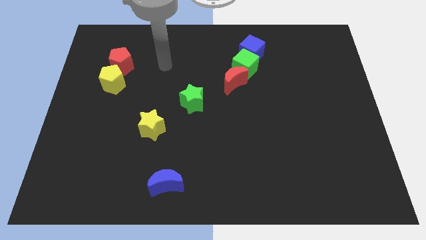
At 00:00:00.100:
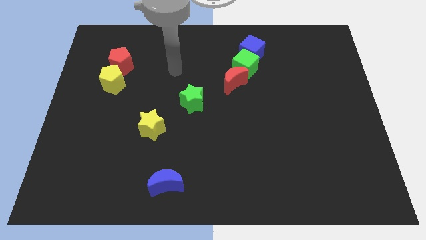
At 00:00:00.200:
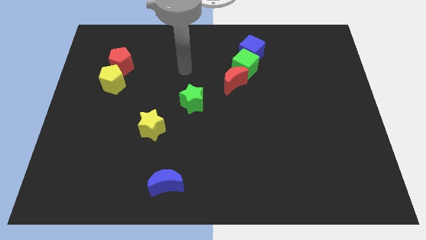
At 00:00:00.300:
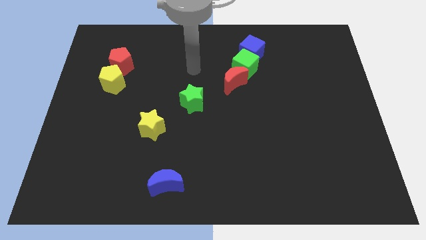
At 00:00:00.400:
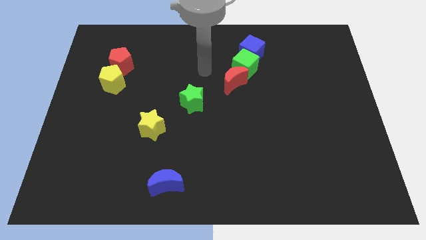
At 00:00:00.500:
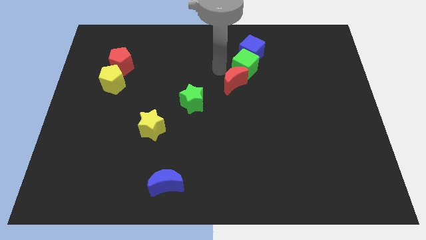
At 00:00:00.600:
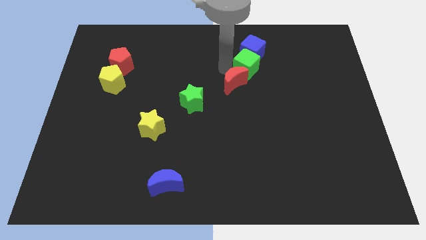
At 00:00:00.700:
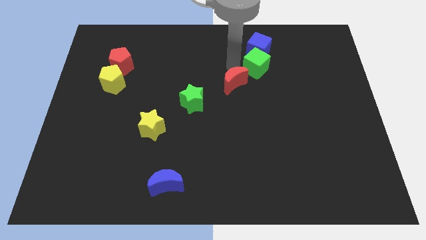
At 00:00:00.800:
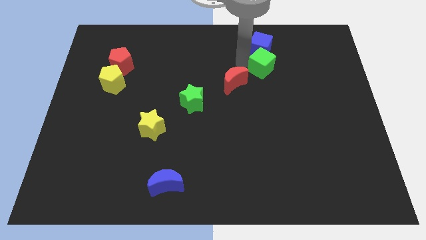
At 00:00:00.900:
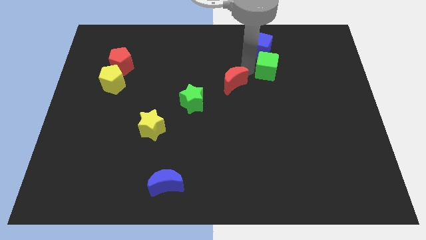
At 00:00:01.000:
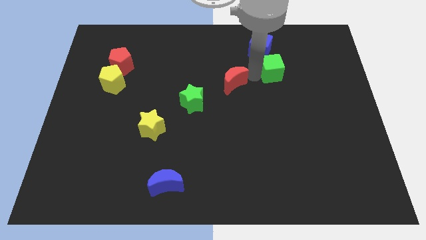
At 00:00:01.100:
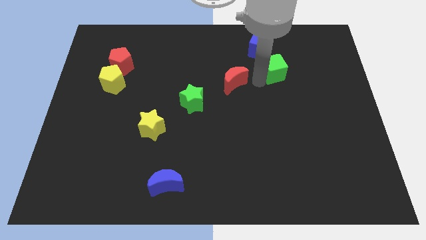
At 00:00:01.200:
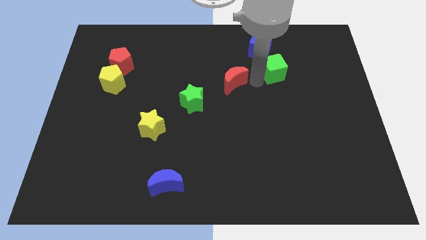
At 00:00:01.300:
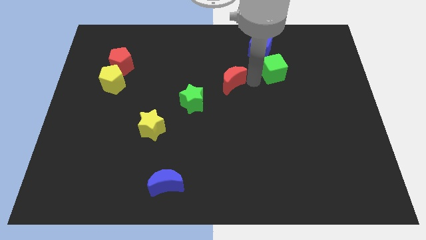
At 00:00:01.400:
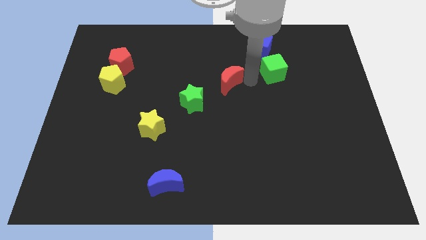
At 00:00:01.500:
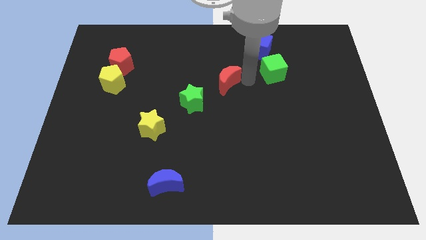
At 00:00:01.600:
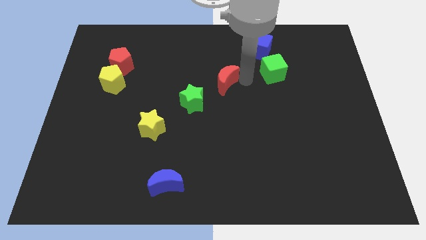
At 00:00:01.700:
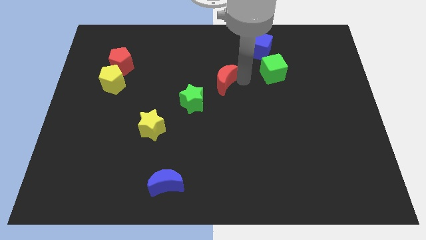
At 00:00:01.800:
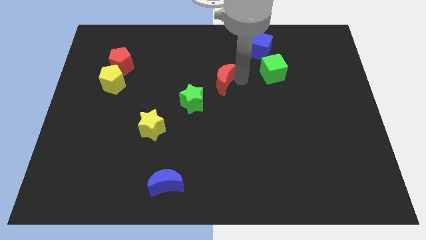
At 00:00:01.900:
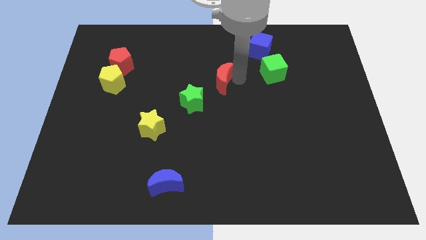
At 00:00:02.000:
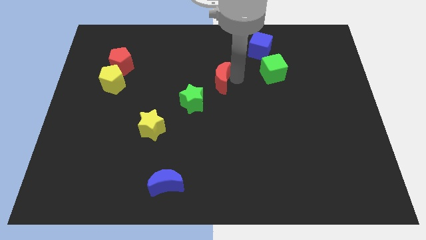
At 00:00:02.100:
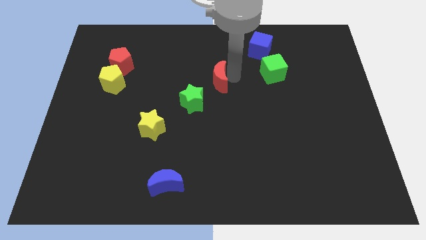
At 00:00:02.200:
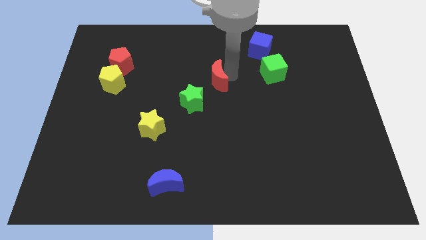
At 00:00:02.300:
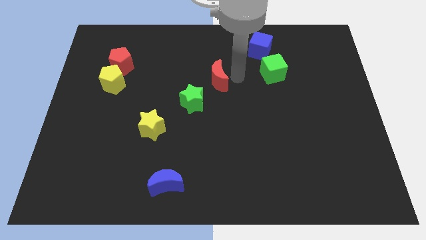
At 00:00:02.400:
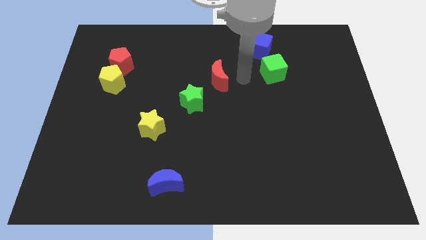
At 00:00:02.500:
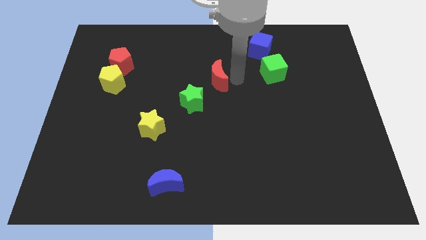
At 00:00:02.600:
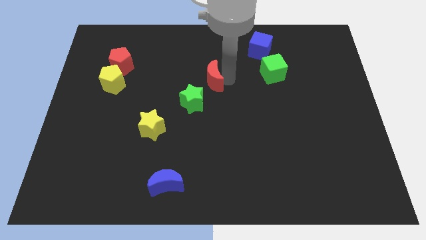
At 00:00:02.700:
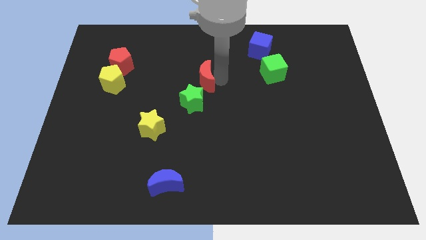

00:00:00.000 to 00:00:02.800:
move the red moon a bit to the left

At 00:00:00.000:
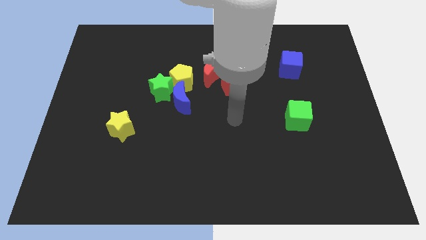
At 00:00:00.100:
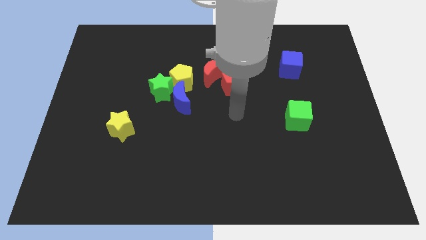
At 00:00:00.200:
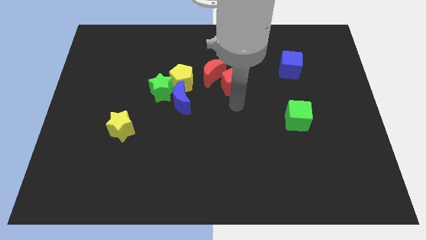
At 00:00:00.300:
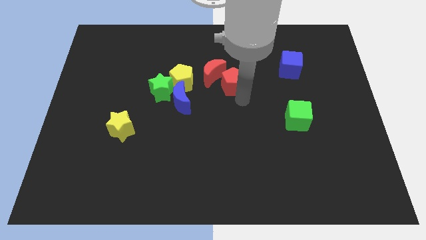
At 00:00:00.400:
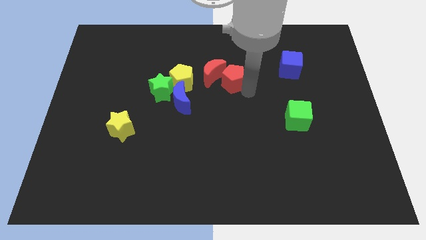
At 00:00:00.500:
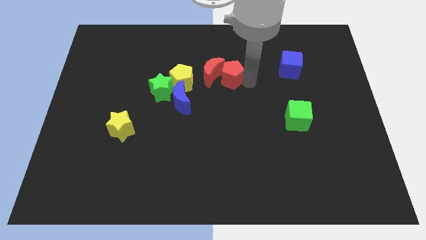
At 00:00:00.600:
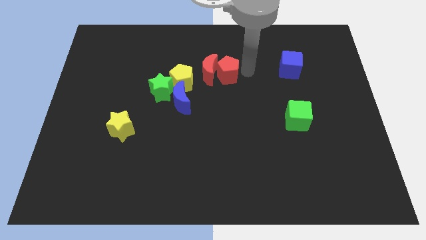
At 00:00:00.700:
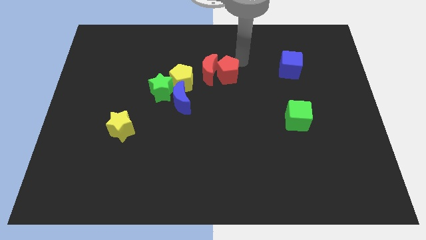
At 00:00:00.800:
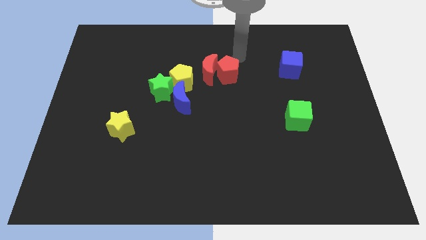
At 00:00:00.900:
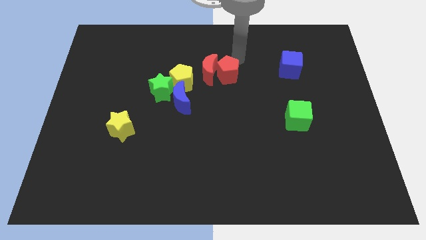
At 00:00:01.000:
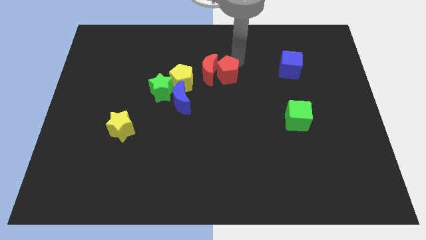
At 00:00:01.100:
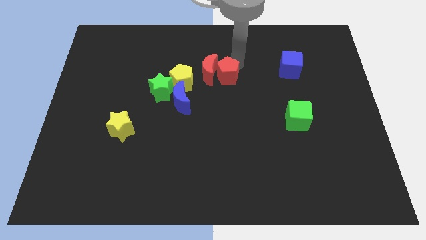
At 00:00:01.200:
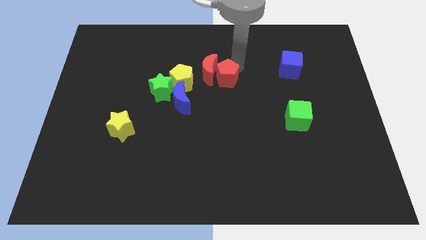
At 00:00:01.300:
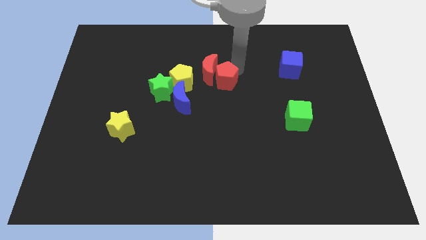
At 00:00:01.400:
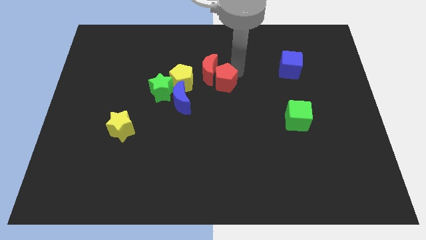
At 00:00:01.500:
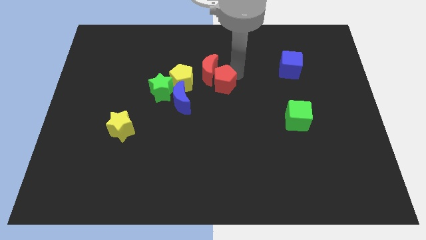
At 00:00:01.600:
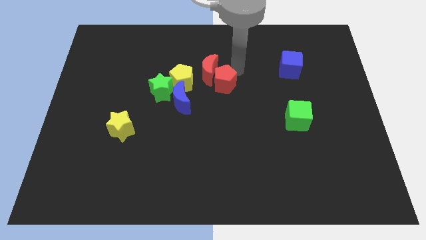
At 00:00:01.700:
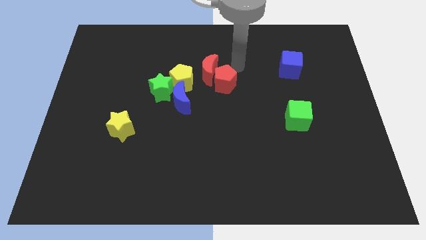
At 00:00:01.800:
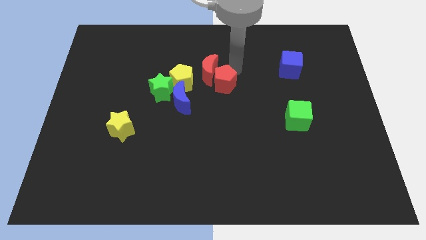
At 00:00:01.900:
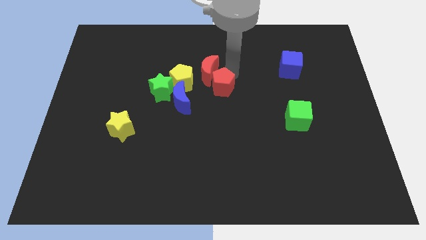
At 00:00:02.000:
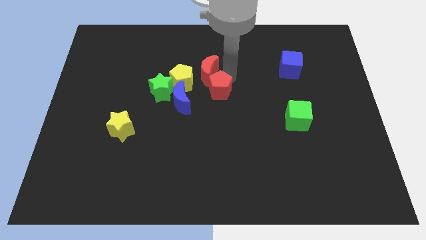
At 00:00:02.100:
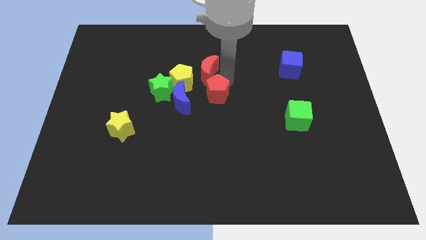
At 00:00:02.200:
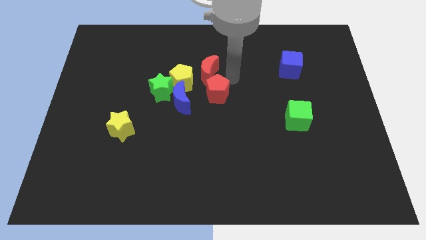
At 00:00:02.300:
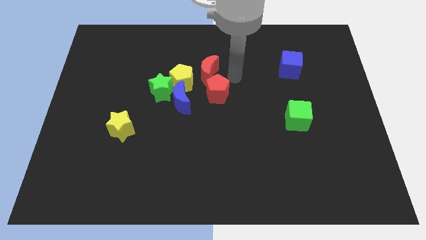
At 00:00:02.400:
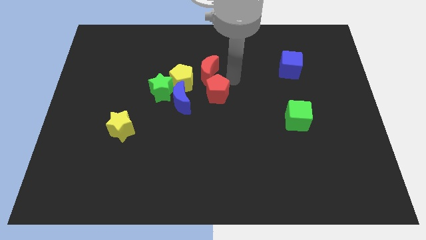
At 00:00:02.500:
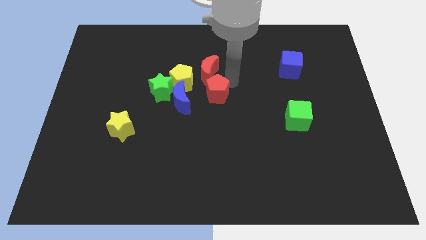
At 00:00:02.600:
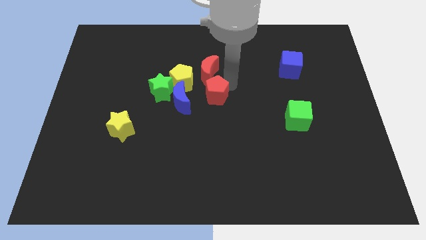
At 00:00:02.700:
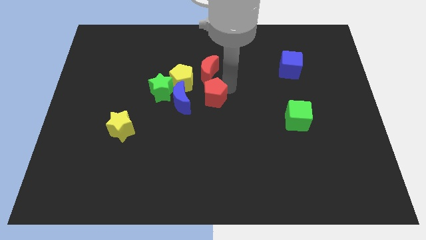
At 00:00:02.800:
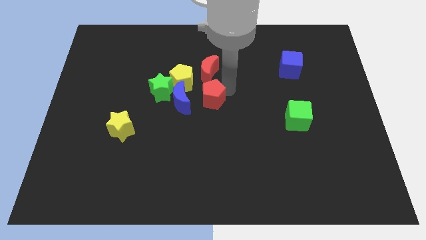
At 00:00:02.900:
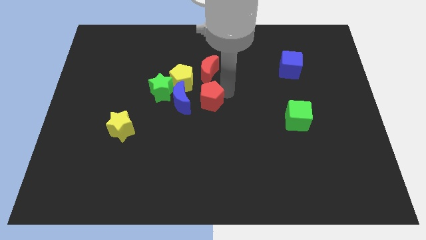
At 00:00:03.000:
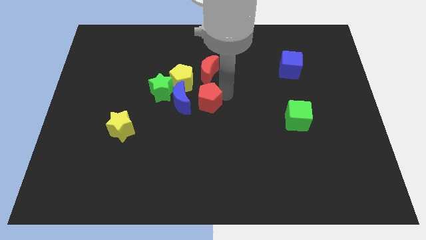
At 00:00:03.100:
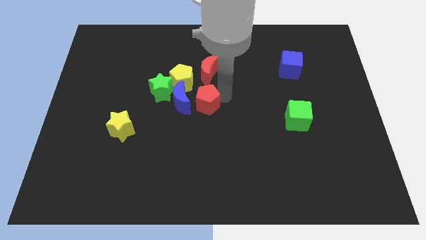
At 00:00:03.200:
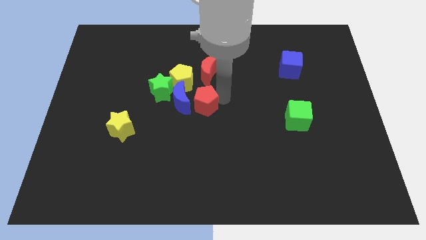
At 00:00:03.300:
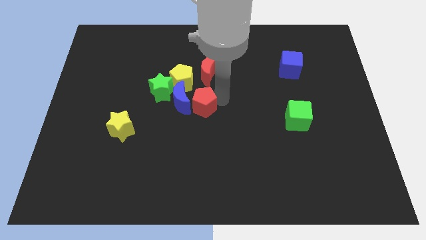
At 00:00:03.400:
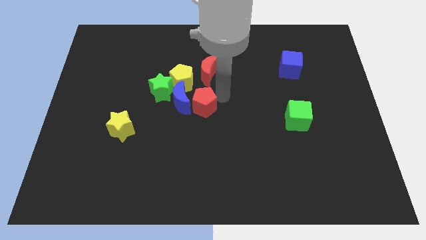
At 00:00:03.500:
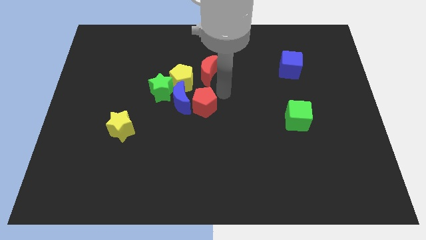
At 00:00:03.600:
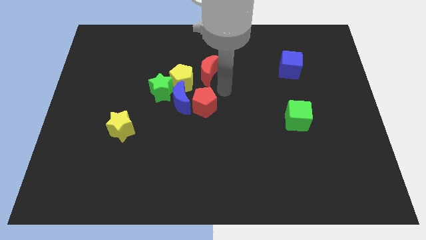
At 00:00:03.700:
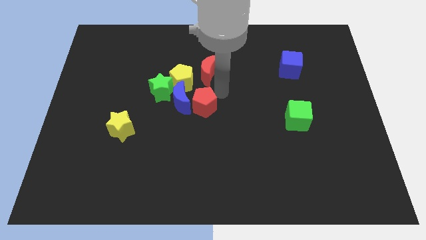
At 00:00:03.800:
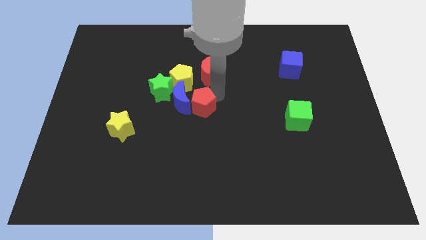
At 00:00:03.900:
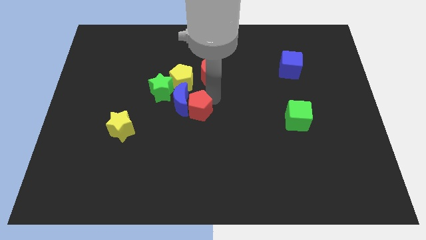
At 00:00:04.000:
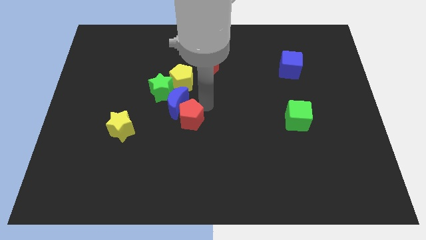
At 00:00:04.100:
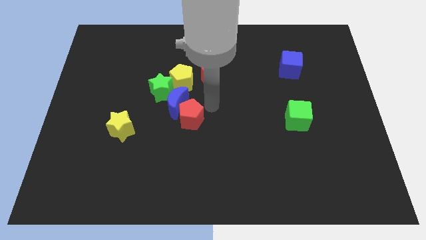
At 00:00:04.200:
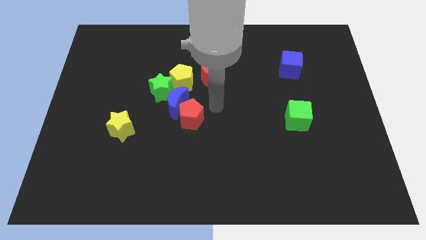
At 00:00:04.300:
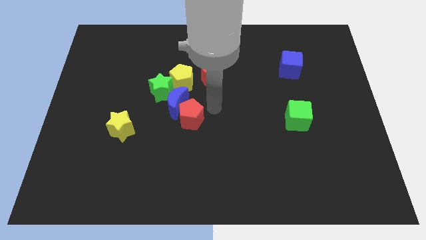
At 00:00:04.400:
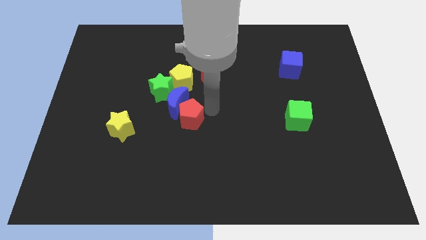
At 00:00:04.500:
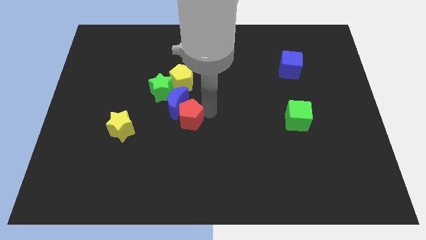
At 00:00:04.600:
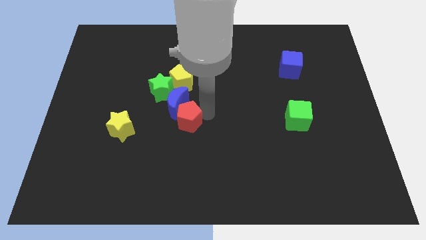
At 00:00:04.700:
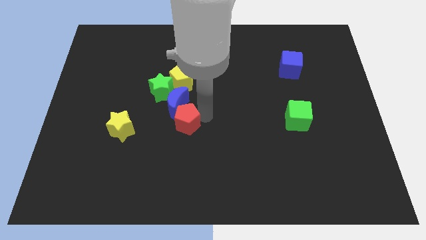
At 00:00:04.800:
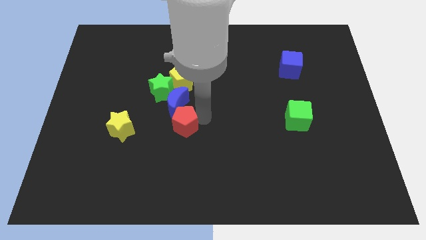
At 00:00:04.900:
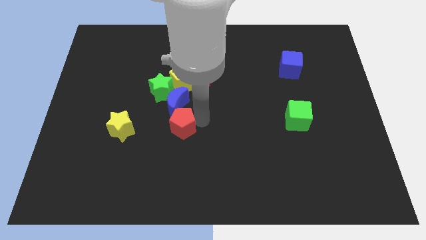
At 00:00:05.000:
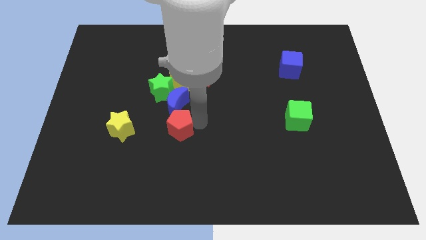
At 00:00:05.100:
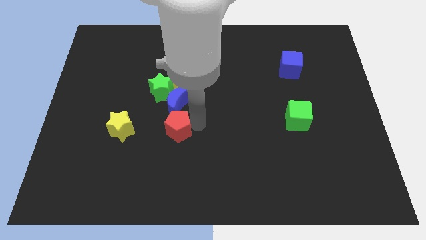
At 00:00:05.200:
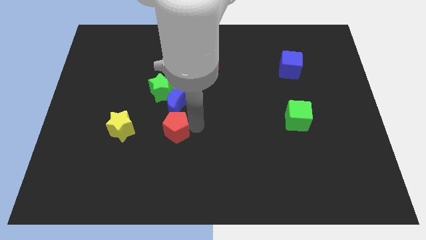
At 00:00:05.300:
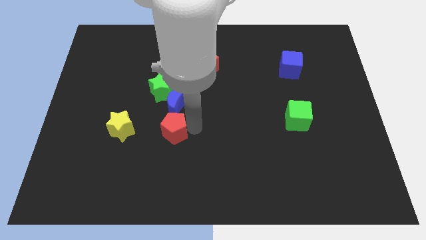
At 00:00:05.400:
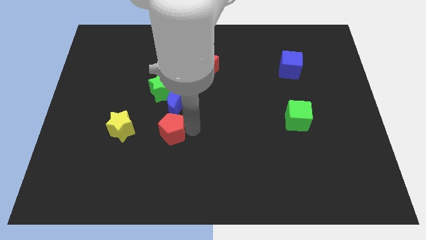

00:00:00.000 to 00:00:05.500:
push the red pentagon down and left
